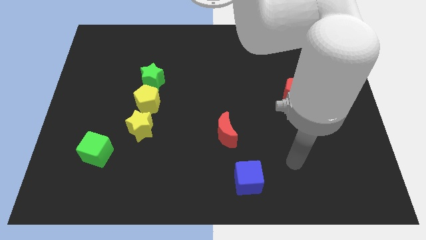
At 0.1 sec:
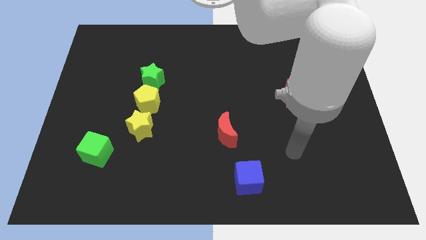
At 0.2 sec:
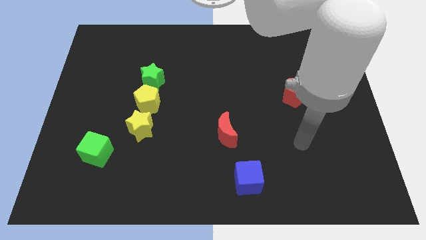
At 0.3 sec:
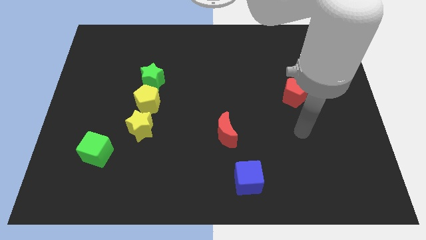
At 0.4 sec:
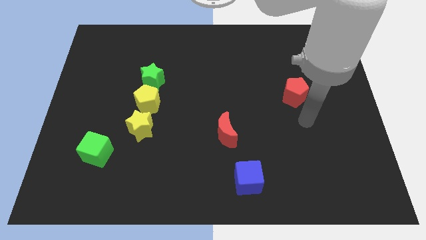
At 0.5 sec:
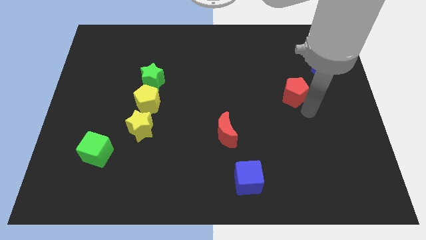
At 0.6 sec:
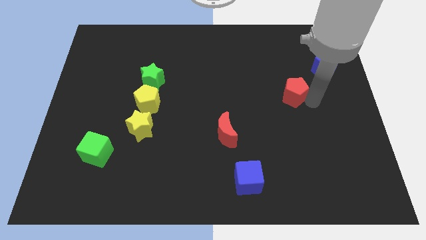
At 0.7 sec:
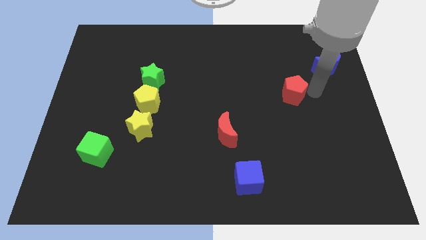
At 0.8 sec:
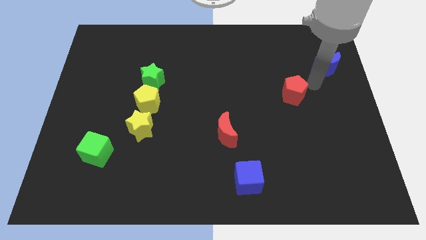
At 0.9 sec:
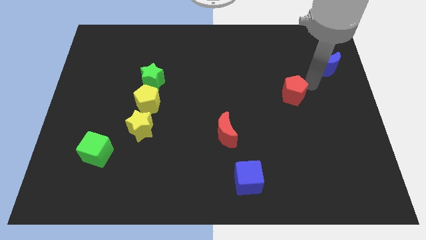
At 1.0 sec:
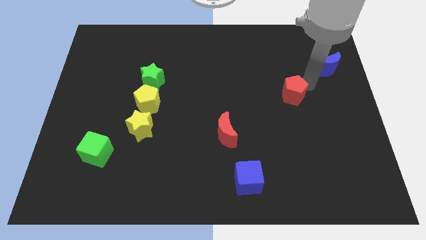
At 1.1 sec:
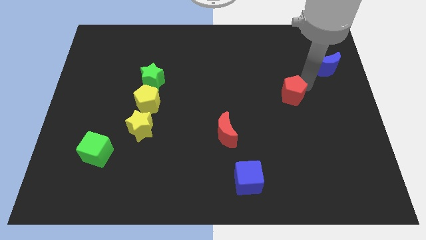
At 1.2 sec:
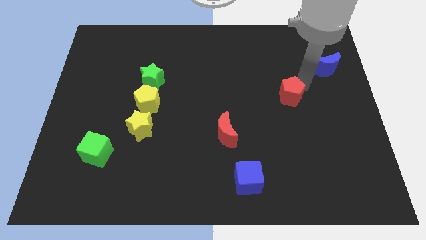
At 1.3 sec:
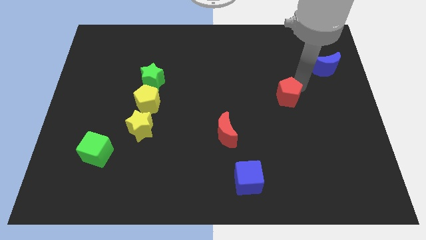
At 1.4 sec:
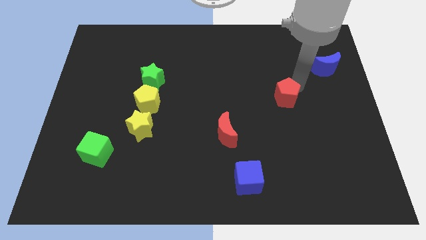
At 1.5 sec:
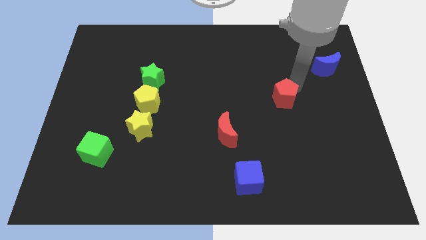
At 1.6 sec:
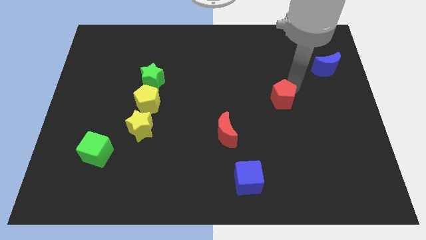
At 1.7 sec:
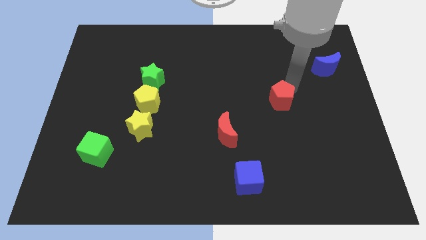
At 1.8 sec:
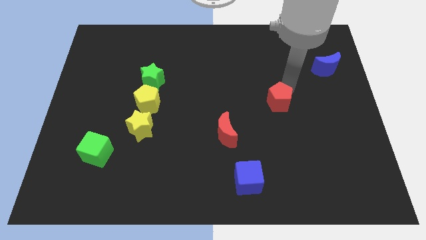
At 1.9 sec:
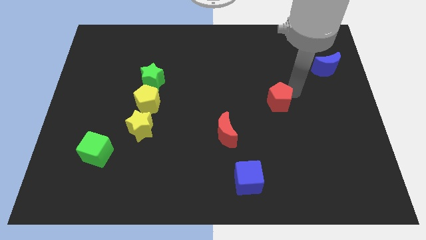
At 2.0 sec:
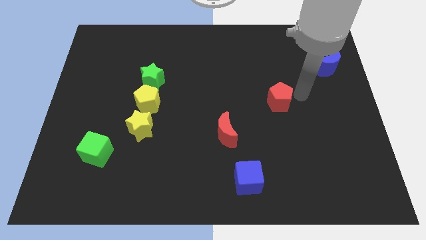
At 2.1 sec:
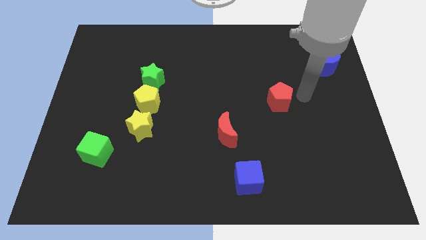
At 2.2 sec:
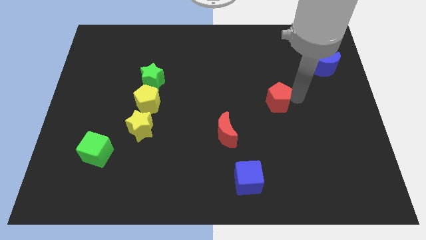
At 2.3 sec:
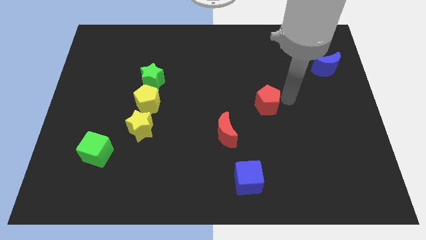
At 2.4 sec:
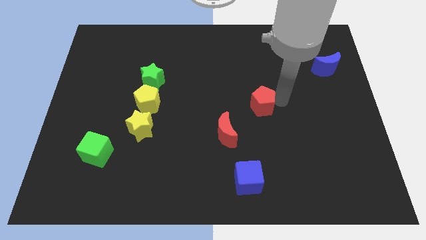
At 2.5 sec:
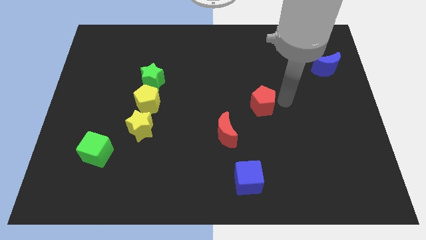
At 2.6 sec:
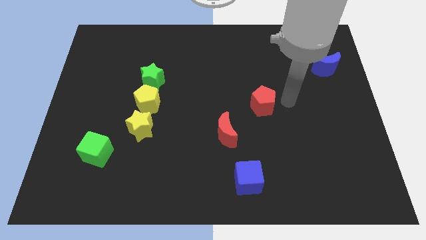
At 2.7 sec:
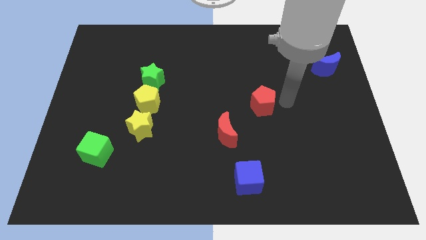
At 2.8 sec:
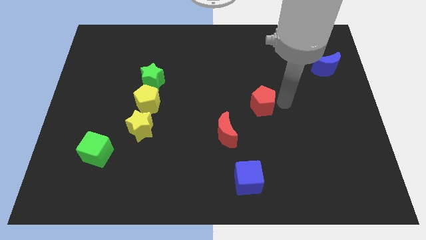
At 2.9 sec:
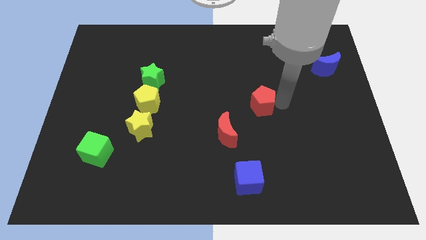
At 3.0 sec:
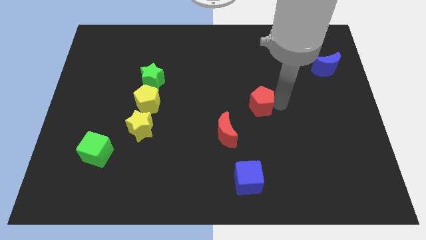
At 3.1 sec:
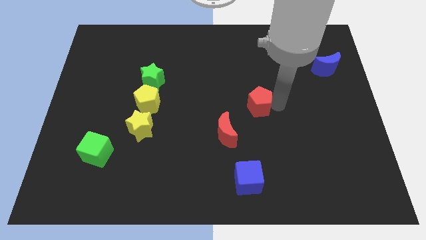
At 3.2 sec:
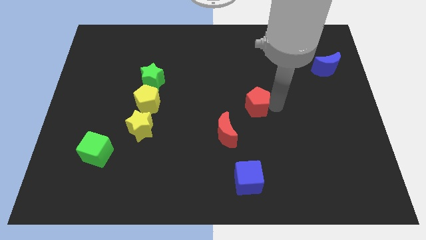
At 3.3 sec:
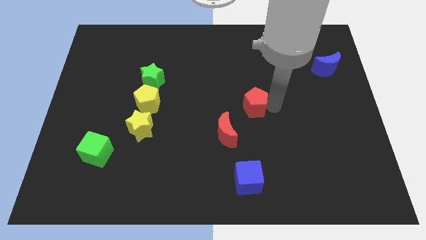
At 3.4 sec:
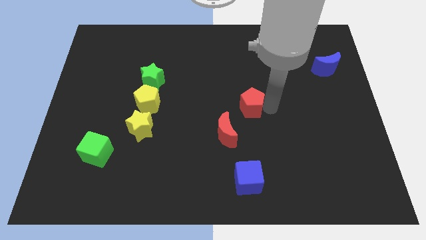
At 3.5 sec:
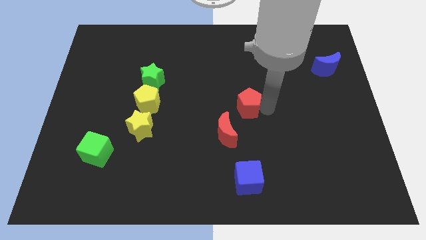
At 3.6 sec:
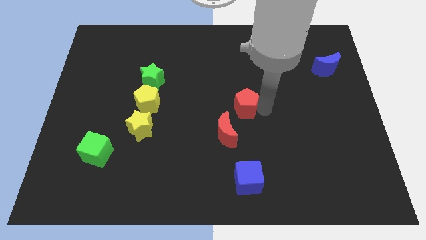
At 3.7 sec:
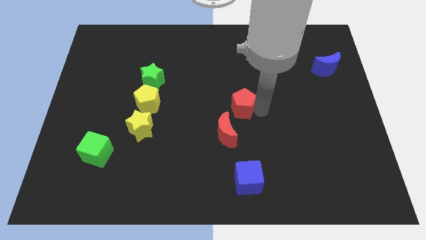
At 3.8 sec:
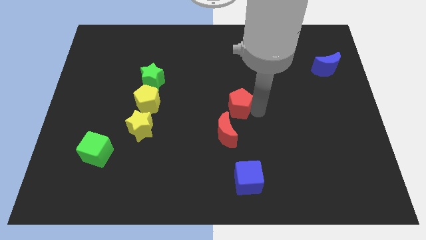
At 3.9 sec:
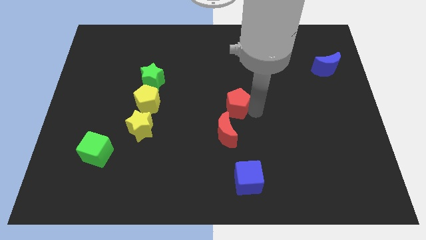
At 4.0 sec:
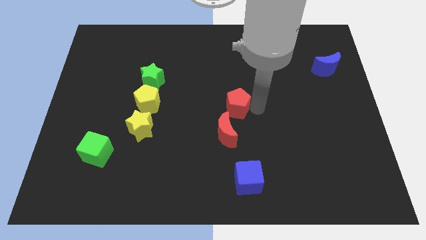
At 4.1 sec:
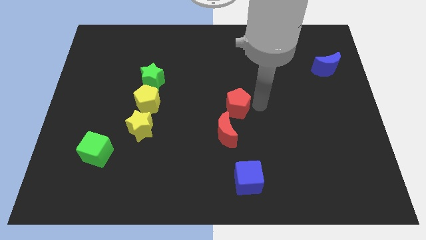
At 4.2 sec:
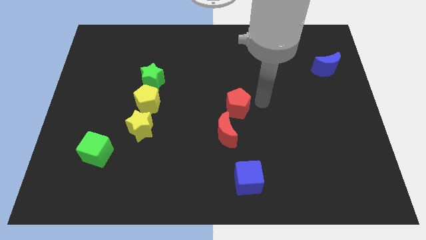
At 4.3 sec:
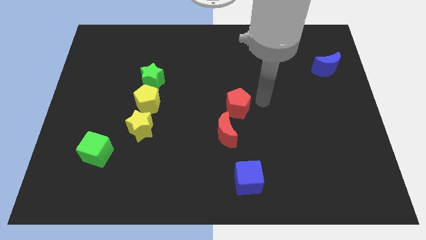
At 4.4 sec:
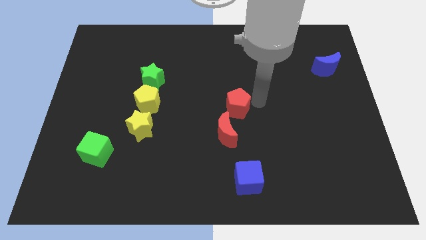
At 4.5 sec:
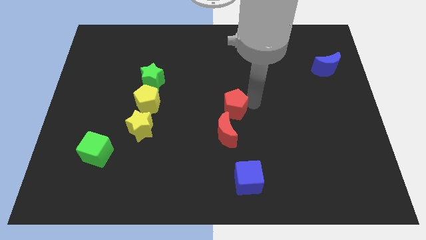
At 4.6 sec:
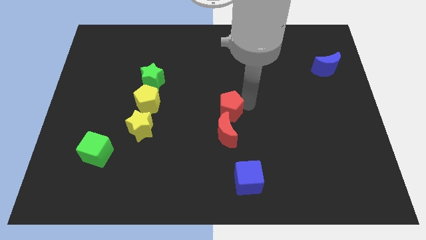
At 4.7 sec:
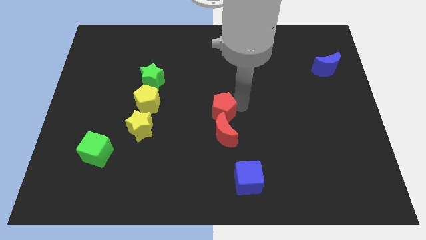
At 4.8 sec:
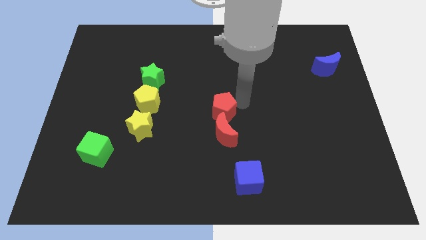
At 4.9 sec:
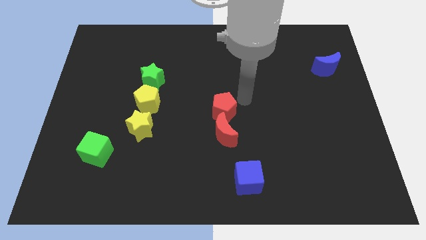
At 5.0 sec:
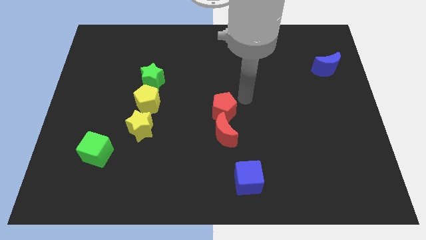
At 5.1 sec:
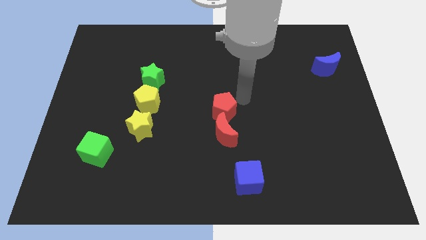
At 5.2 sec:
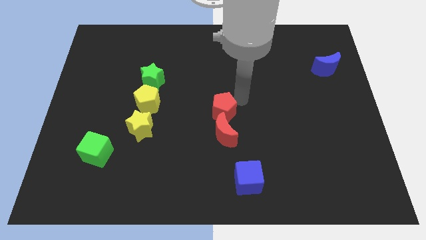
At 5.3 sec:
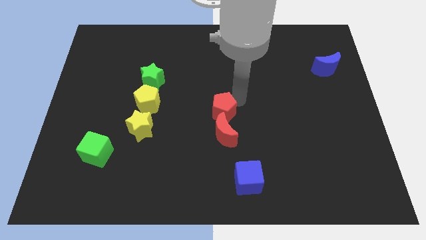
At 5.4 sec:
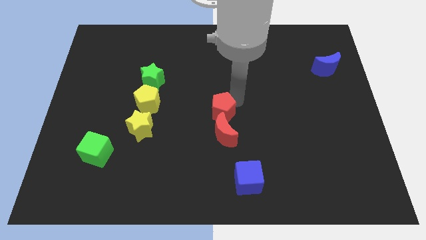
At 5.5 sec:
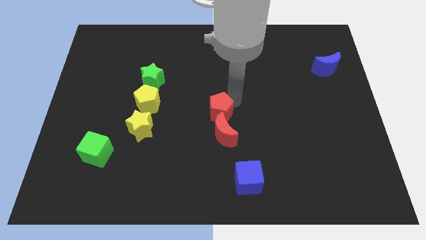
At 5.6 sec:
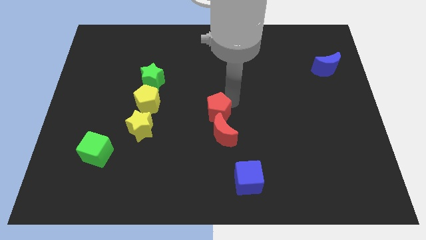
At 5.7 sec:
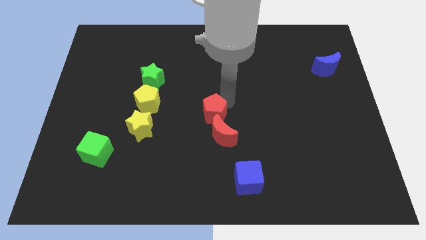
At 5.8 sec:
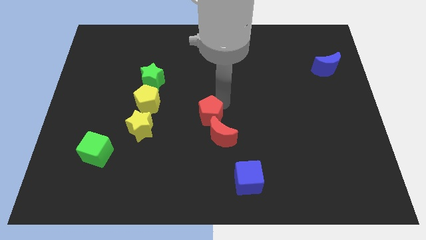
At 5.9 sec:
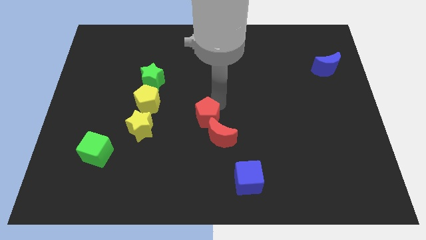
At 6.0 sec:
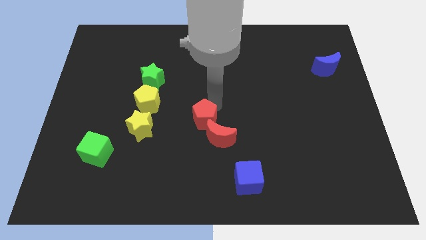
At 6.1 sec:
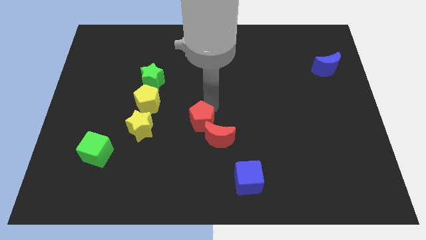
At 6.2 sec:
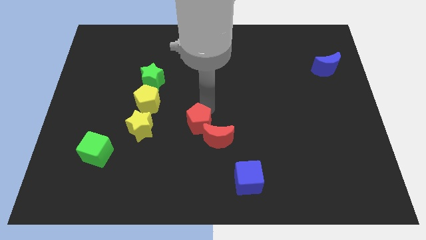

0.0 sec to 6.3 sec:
move the red pentagon to the left of the red moon

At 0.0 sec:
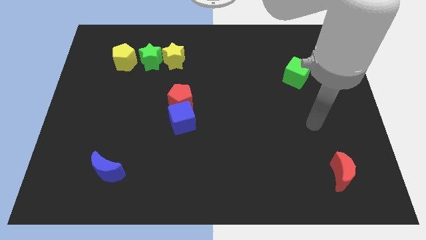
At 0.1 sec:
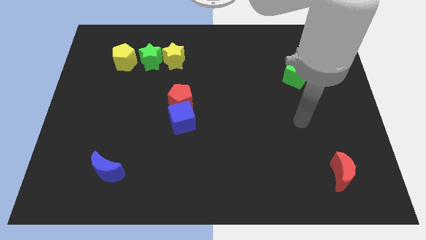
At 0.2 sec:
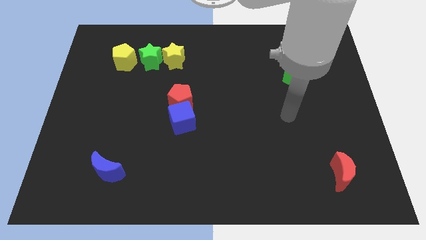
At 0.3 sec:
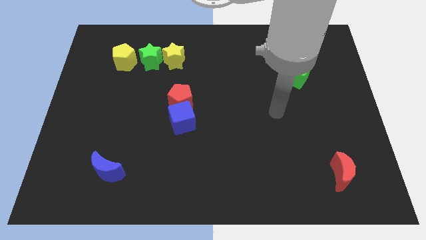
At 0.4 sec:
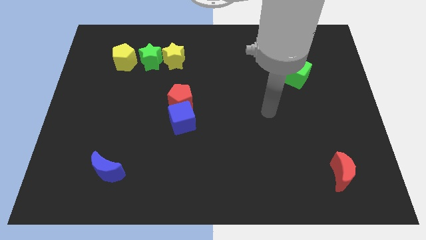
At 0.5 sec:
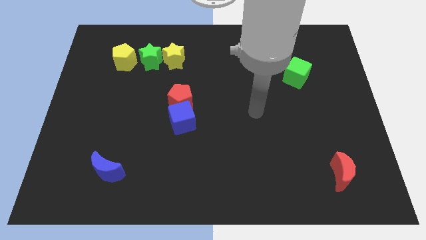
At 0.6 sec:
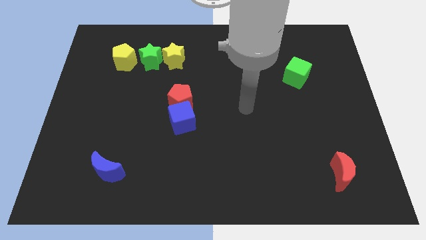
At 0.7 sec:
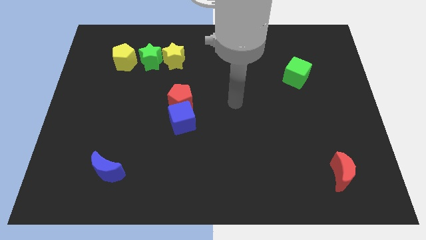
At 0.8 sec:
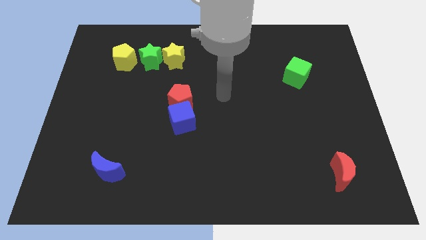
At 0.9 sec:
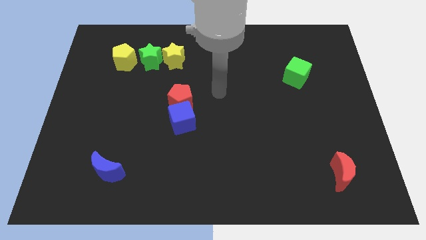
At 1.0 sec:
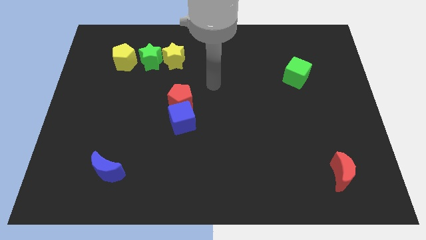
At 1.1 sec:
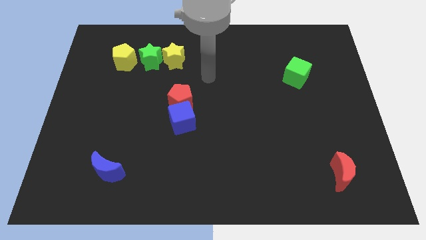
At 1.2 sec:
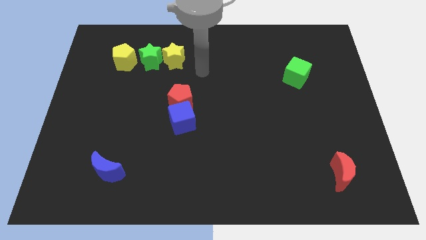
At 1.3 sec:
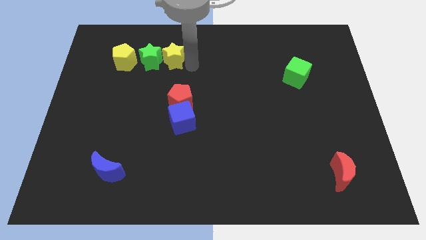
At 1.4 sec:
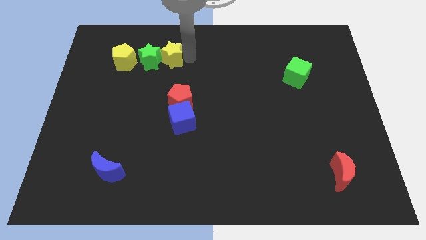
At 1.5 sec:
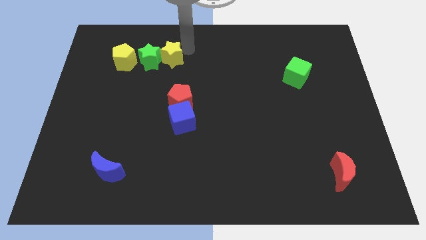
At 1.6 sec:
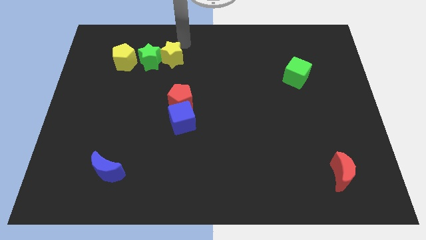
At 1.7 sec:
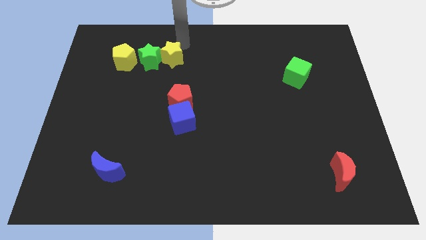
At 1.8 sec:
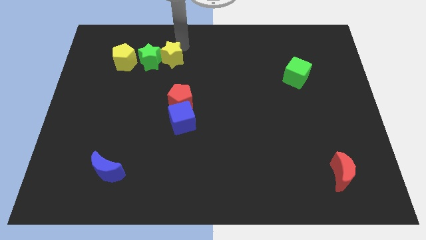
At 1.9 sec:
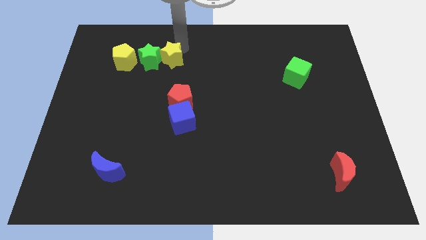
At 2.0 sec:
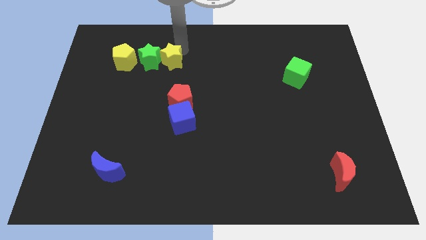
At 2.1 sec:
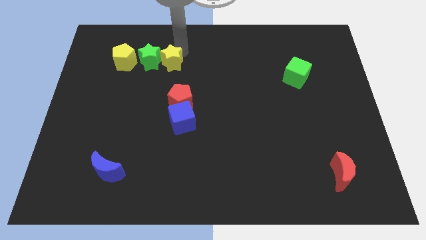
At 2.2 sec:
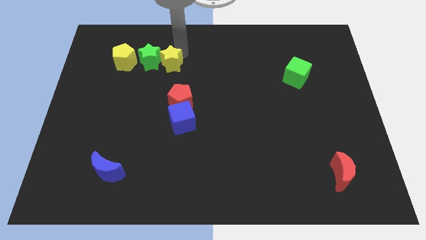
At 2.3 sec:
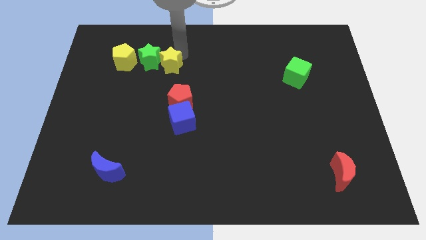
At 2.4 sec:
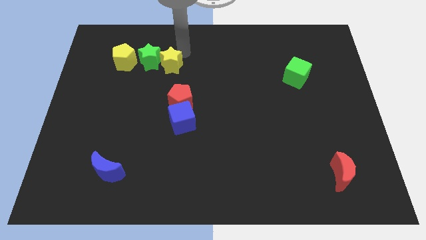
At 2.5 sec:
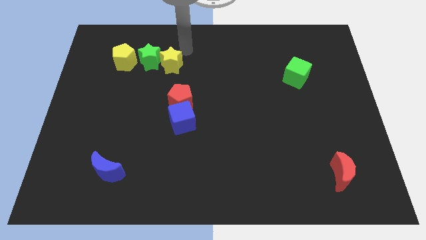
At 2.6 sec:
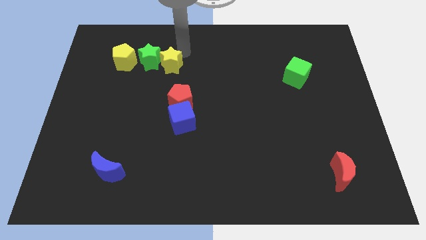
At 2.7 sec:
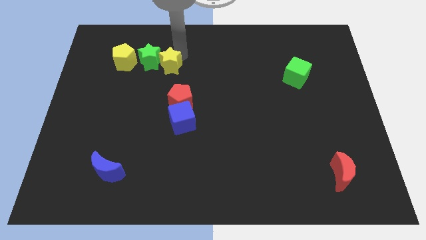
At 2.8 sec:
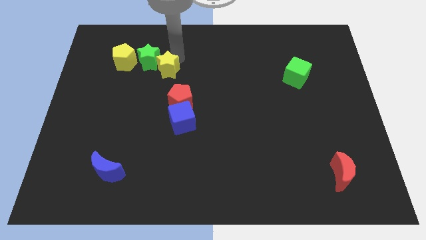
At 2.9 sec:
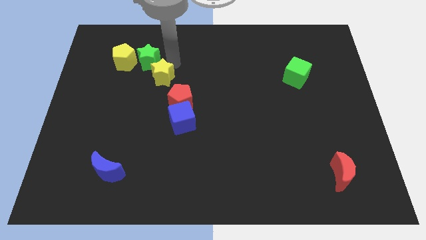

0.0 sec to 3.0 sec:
move the yellow star below the green star
